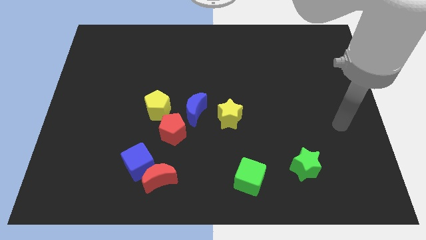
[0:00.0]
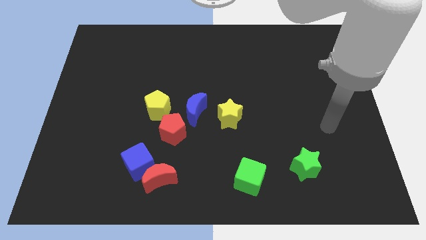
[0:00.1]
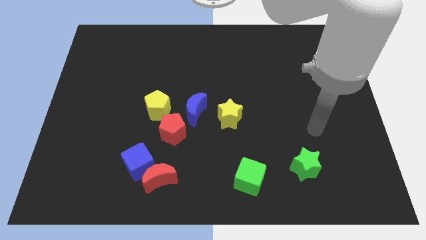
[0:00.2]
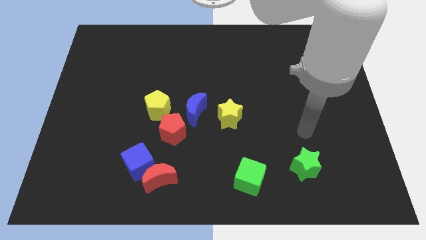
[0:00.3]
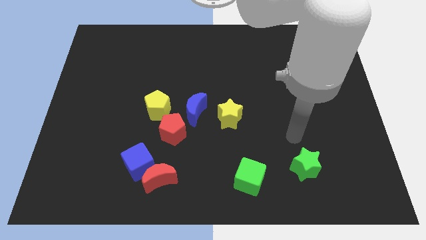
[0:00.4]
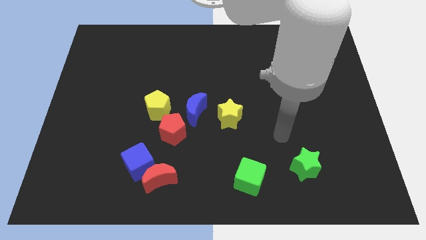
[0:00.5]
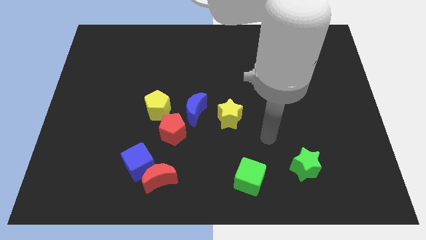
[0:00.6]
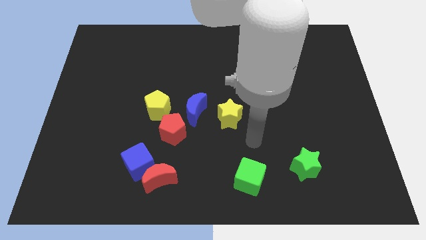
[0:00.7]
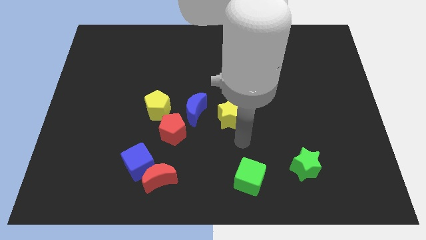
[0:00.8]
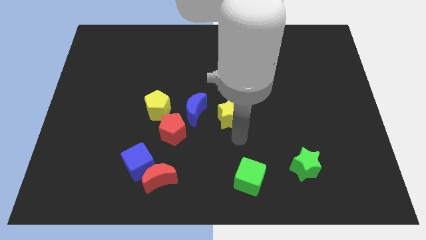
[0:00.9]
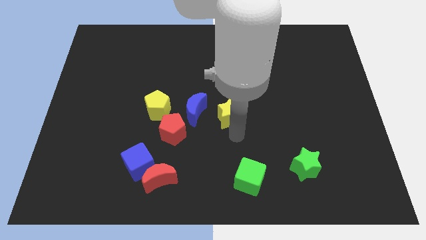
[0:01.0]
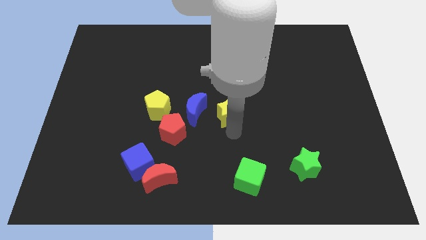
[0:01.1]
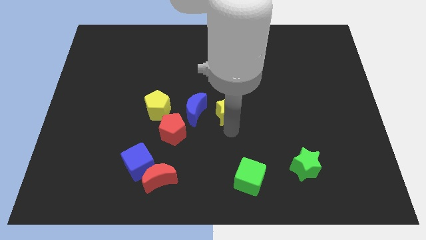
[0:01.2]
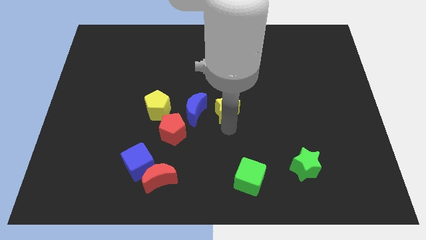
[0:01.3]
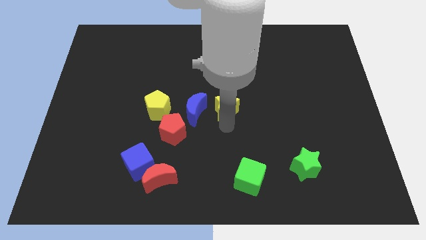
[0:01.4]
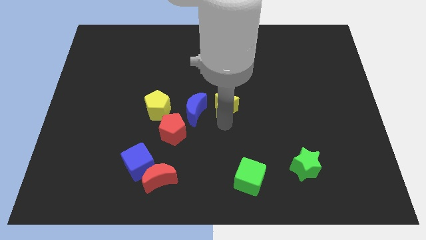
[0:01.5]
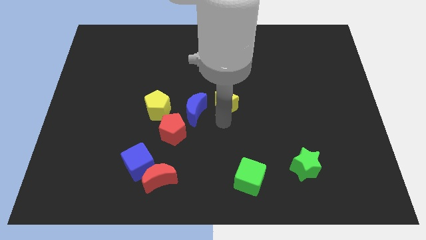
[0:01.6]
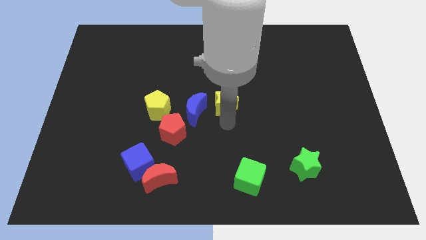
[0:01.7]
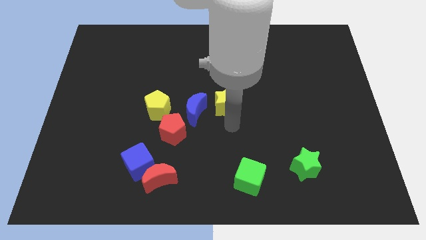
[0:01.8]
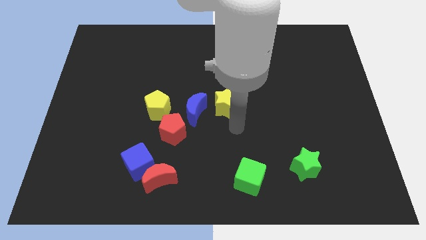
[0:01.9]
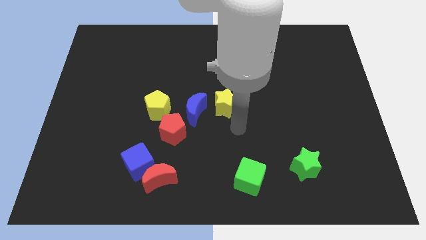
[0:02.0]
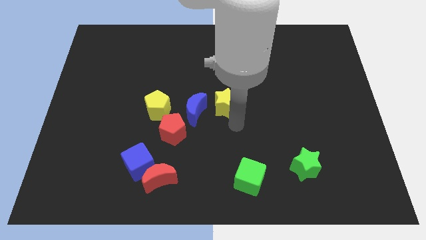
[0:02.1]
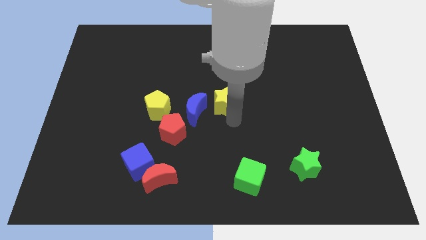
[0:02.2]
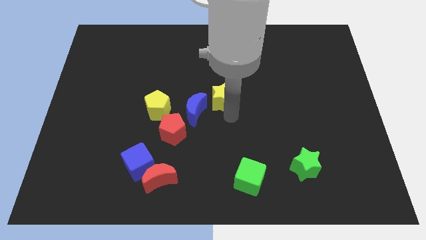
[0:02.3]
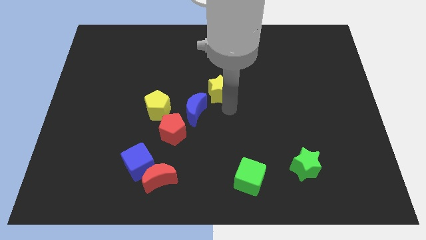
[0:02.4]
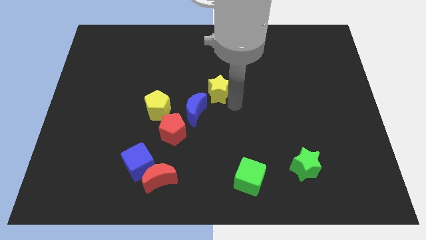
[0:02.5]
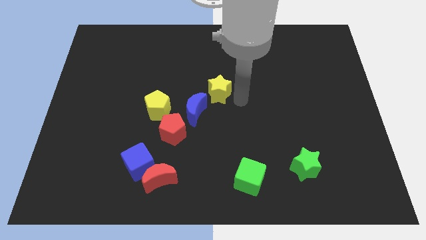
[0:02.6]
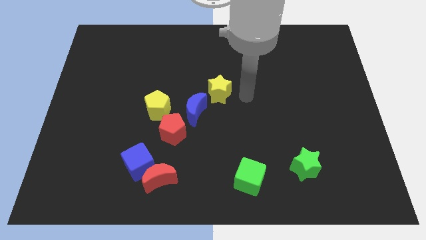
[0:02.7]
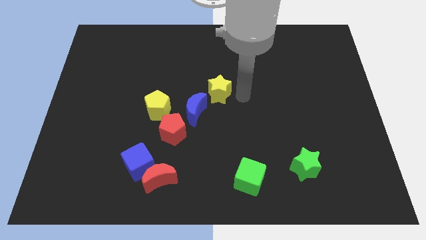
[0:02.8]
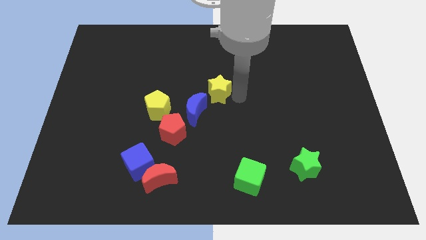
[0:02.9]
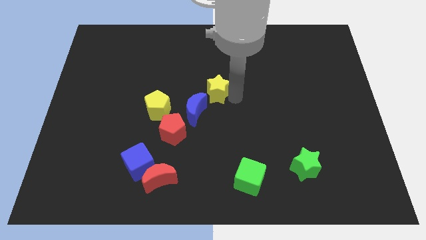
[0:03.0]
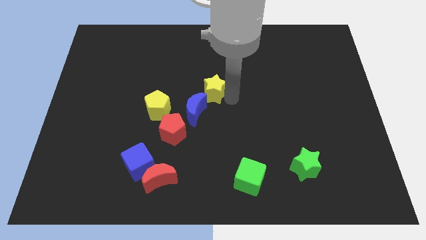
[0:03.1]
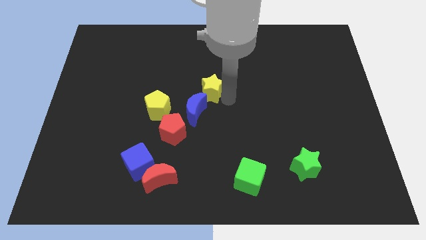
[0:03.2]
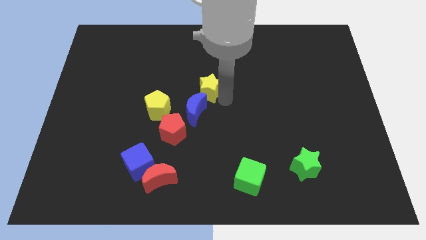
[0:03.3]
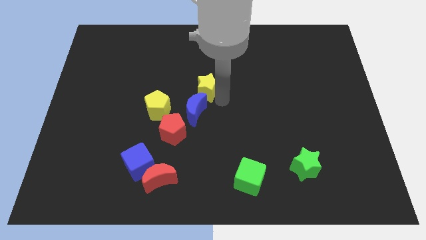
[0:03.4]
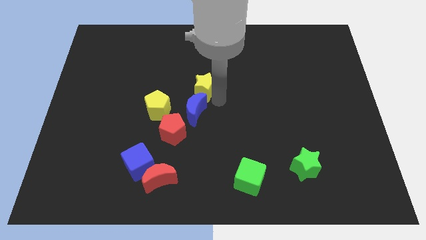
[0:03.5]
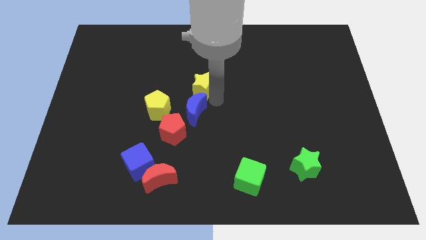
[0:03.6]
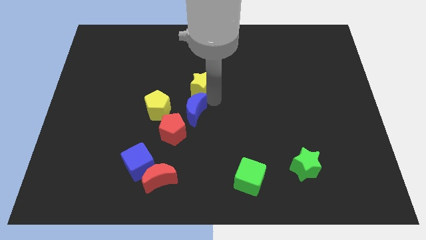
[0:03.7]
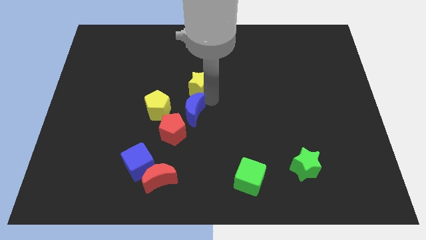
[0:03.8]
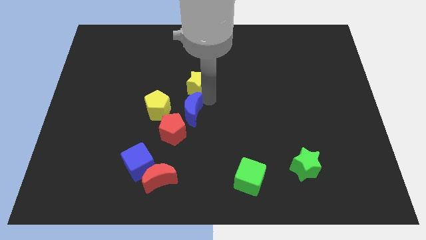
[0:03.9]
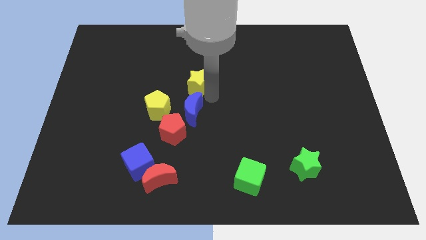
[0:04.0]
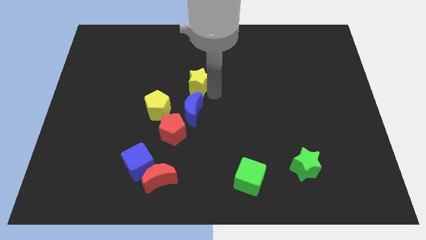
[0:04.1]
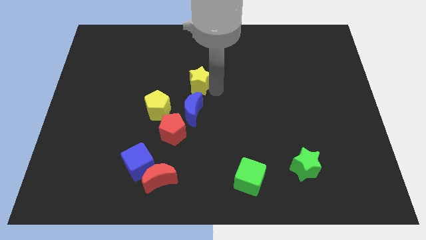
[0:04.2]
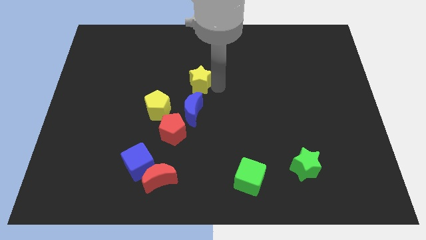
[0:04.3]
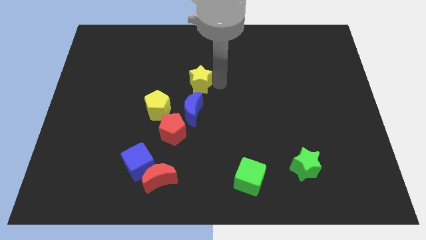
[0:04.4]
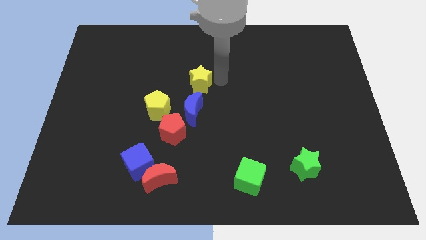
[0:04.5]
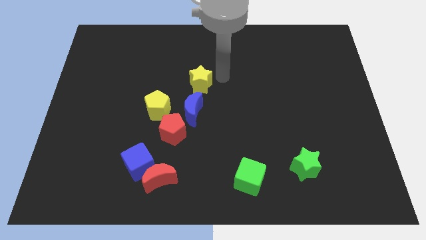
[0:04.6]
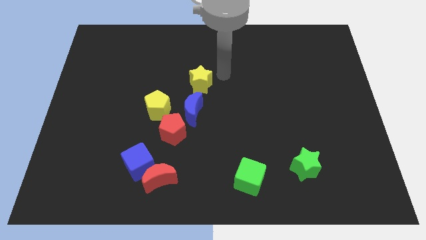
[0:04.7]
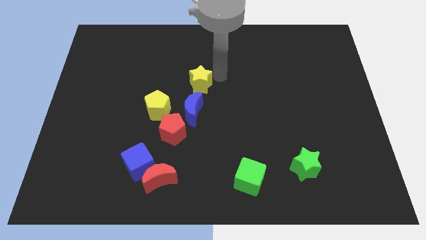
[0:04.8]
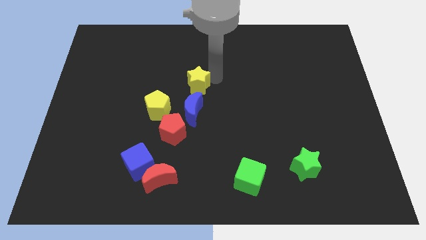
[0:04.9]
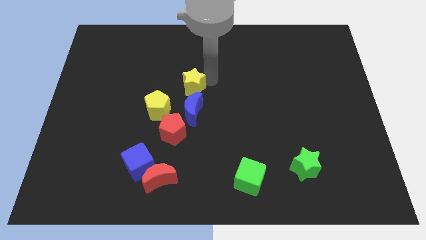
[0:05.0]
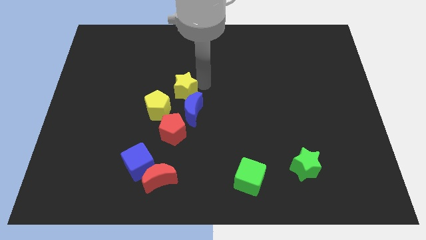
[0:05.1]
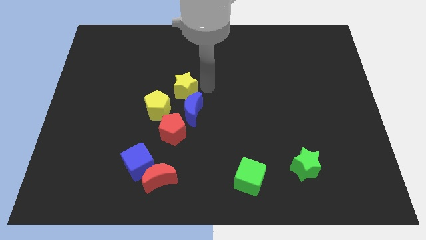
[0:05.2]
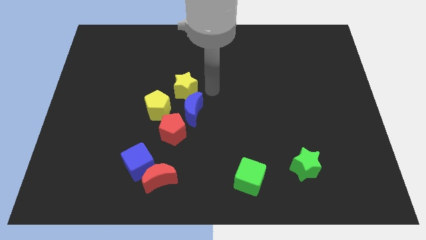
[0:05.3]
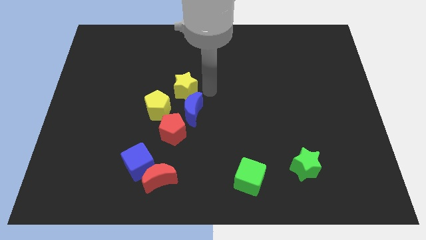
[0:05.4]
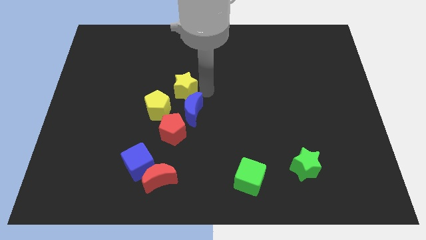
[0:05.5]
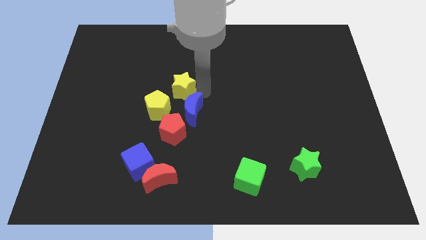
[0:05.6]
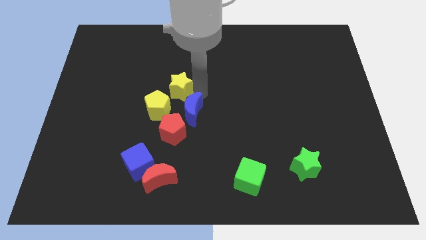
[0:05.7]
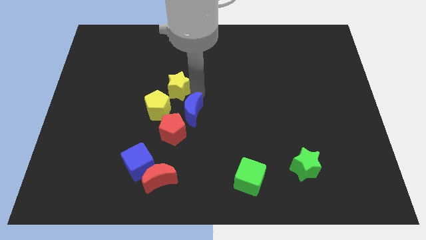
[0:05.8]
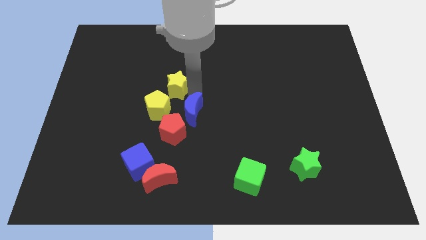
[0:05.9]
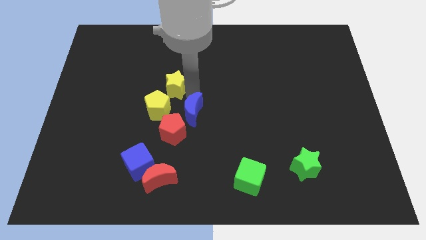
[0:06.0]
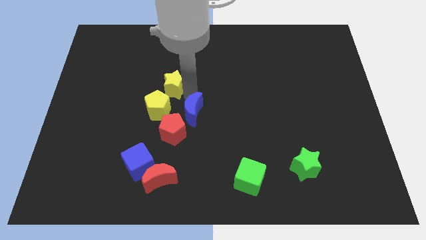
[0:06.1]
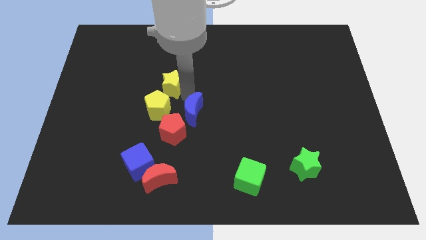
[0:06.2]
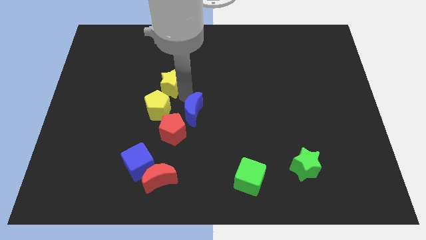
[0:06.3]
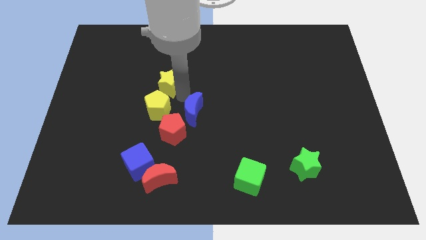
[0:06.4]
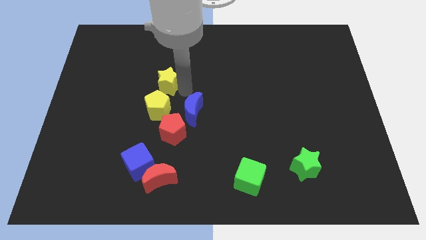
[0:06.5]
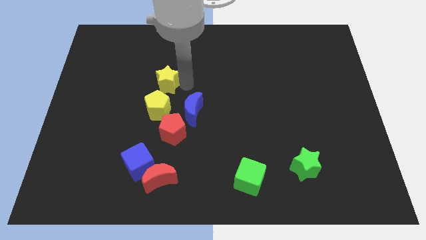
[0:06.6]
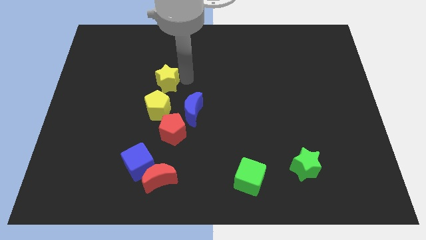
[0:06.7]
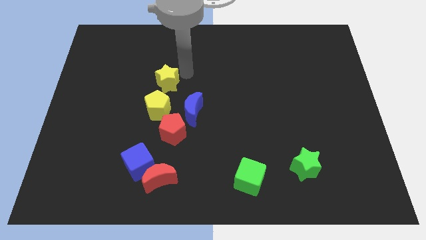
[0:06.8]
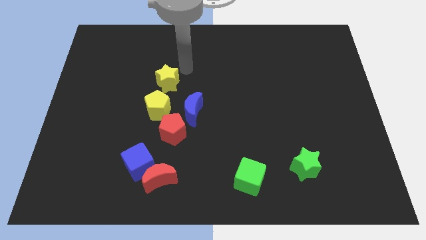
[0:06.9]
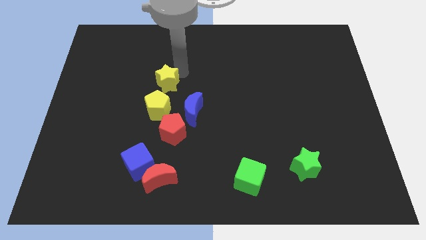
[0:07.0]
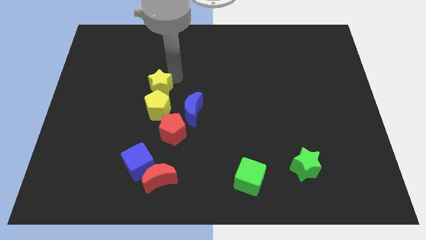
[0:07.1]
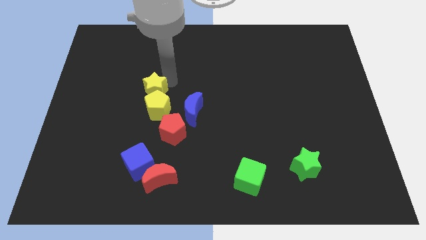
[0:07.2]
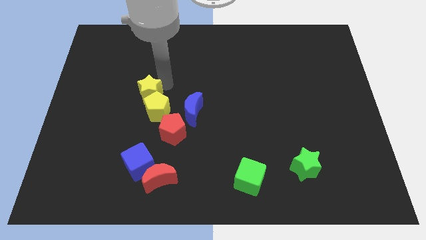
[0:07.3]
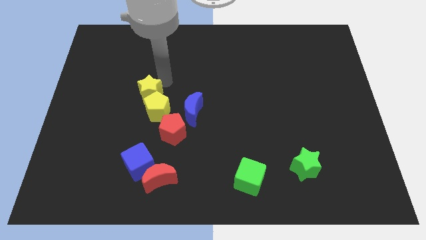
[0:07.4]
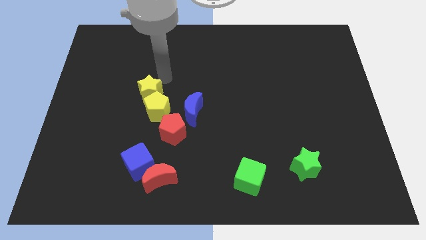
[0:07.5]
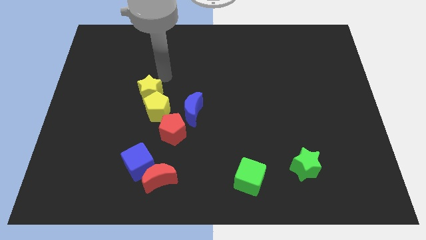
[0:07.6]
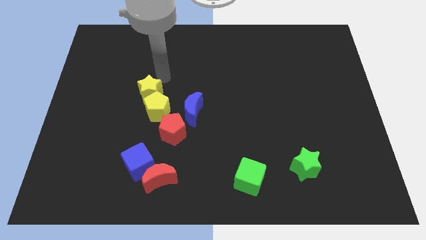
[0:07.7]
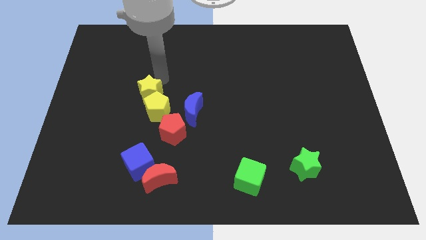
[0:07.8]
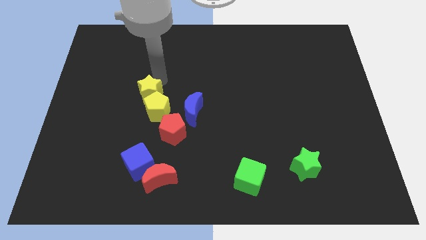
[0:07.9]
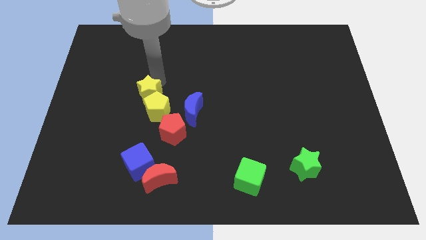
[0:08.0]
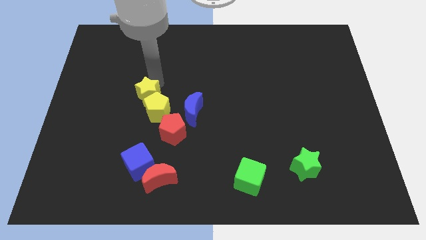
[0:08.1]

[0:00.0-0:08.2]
put the yellow star to the top left of the red pentagon
